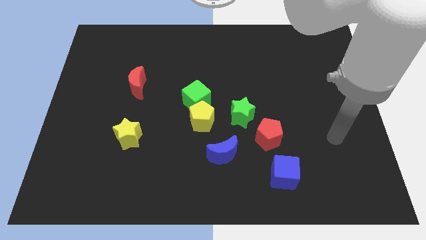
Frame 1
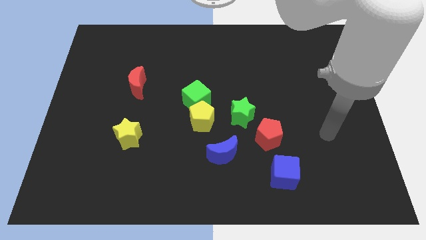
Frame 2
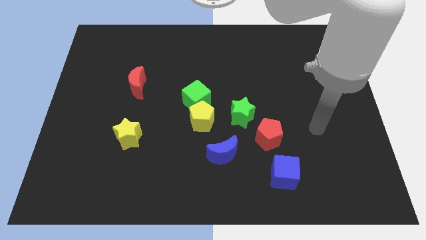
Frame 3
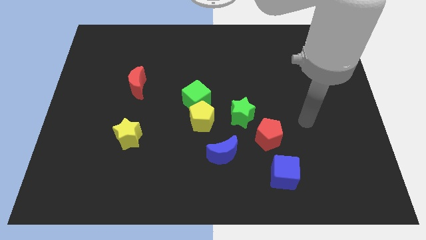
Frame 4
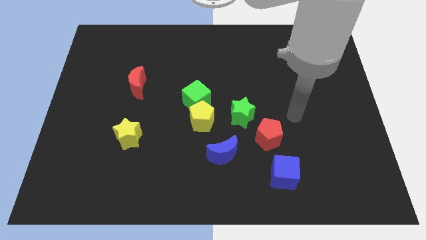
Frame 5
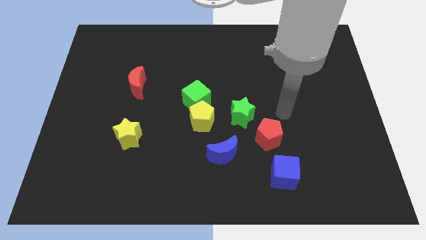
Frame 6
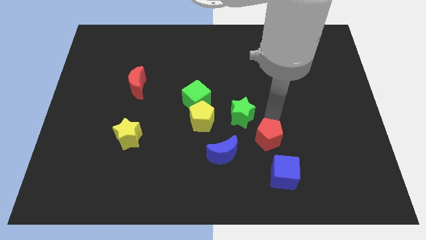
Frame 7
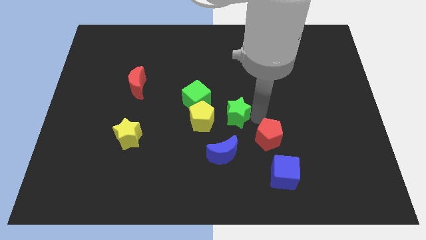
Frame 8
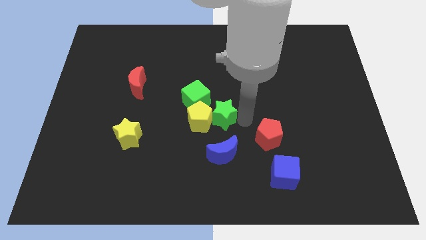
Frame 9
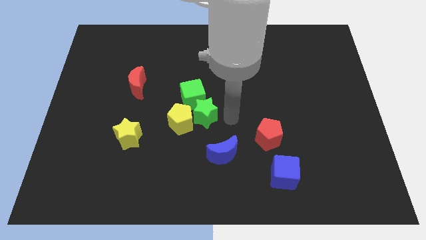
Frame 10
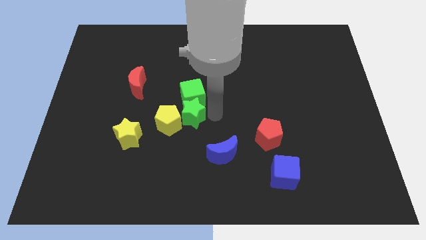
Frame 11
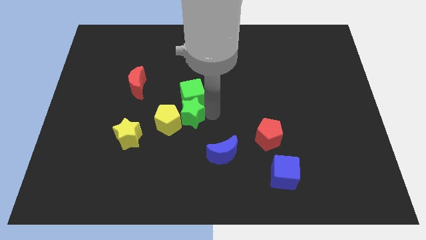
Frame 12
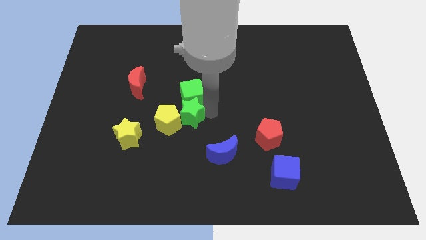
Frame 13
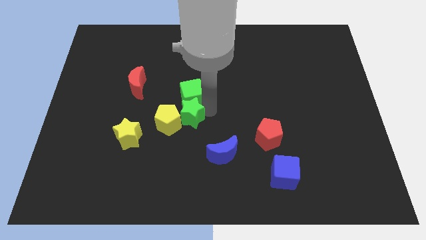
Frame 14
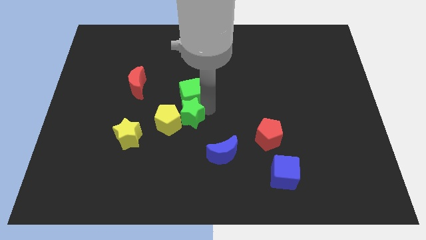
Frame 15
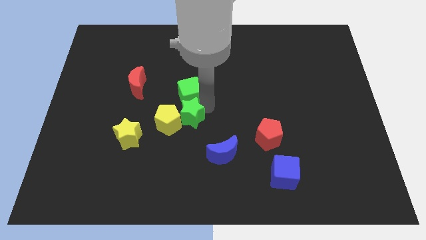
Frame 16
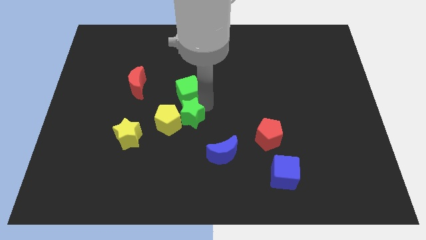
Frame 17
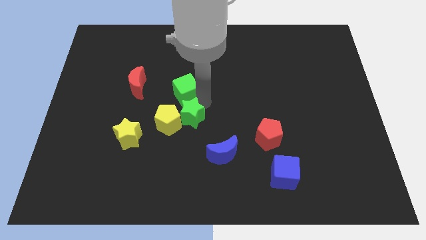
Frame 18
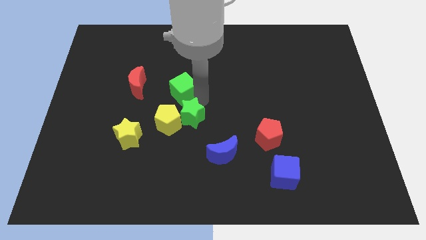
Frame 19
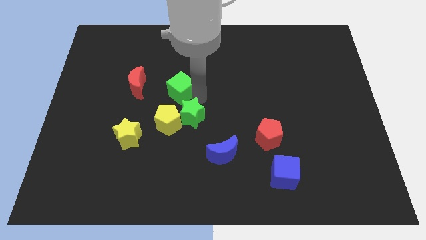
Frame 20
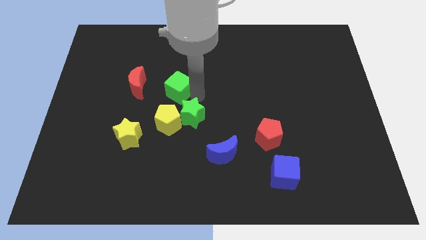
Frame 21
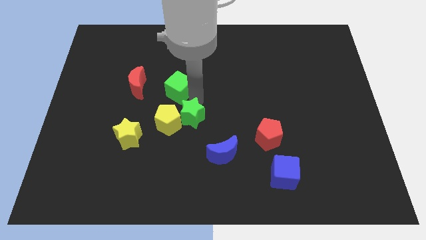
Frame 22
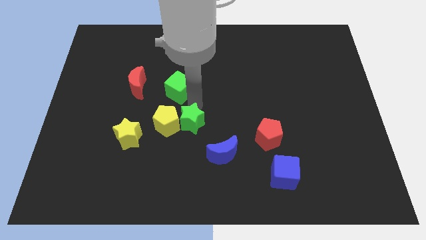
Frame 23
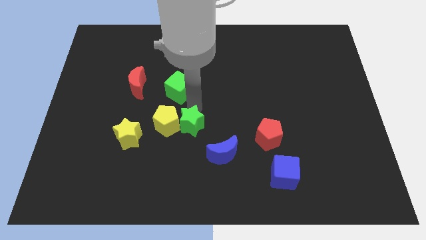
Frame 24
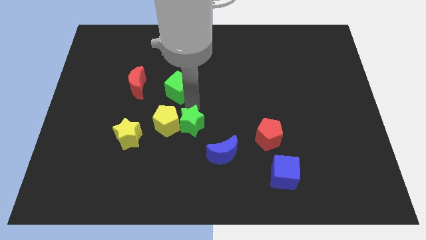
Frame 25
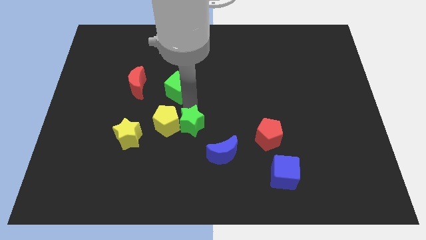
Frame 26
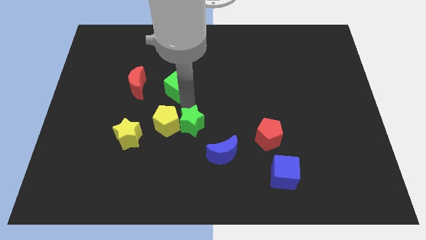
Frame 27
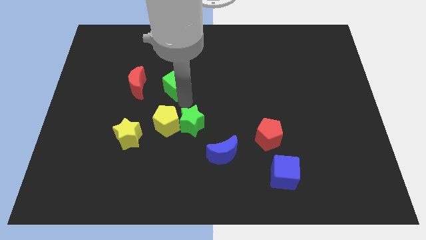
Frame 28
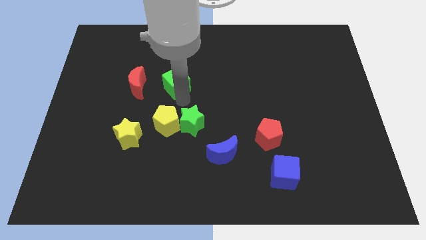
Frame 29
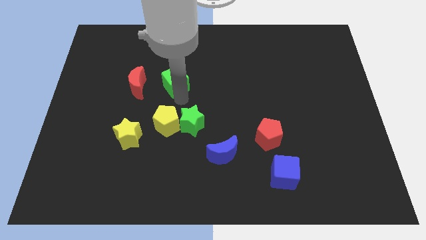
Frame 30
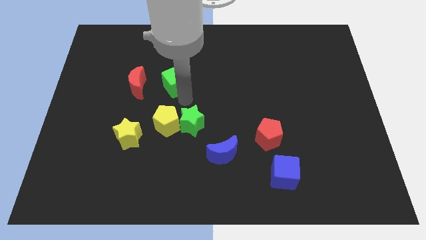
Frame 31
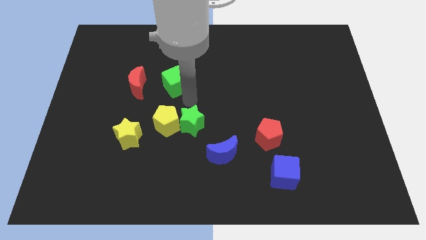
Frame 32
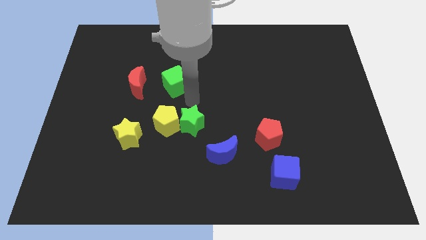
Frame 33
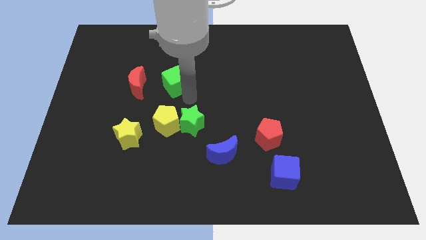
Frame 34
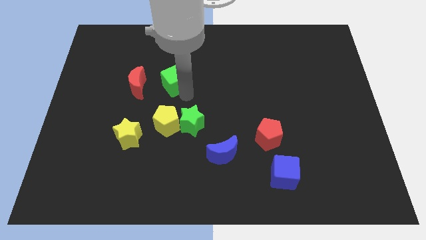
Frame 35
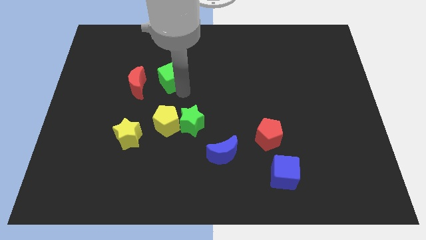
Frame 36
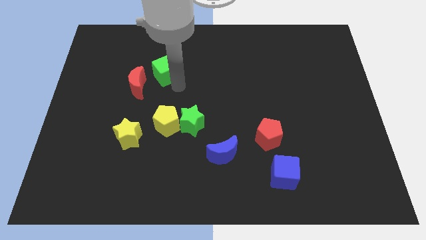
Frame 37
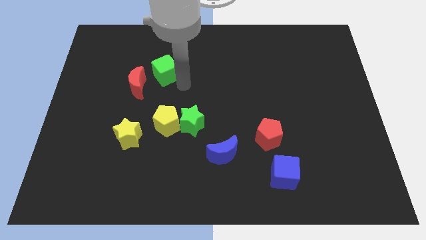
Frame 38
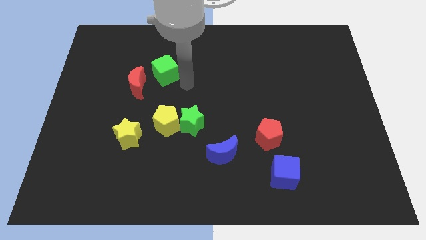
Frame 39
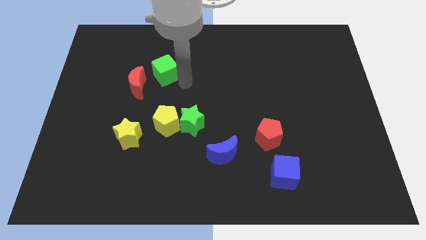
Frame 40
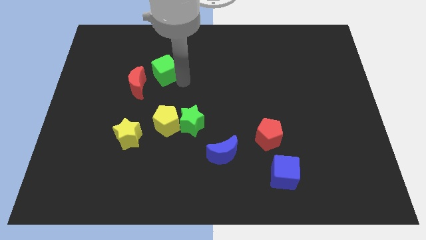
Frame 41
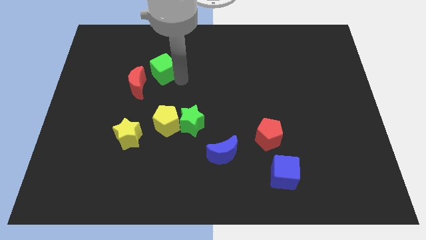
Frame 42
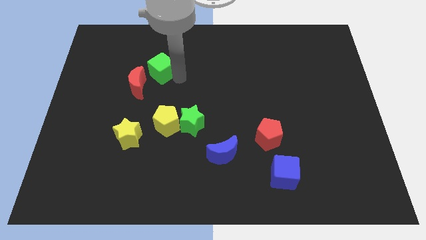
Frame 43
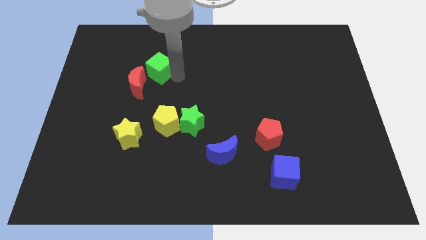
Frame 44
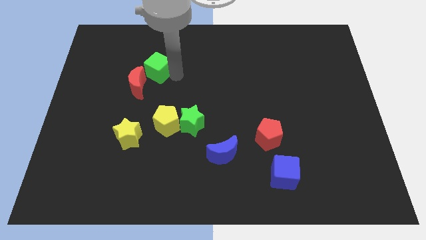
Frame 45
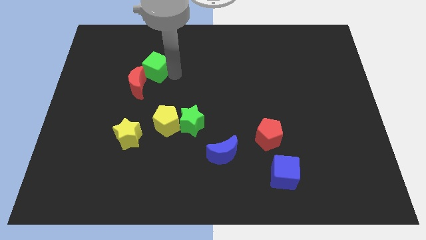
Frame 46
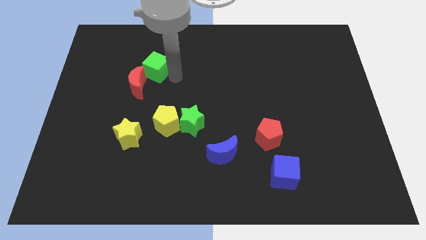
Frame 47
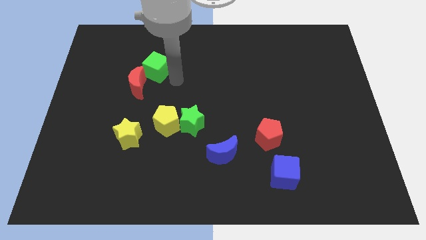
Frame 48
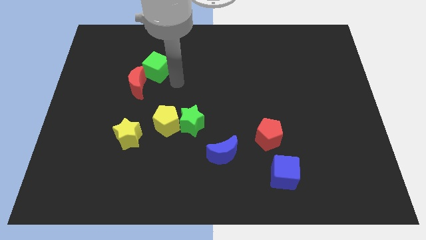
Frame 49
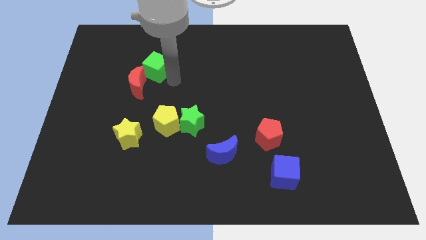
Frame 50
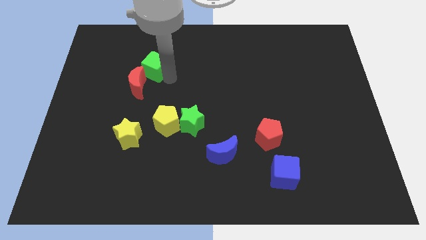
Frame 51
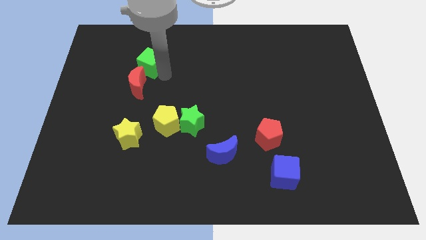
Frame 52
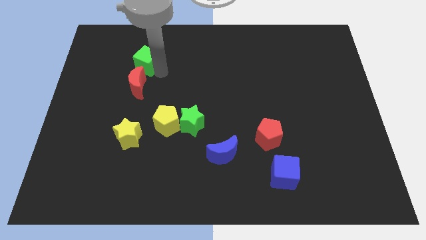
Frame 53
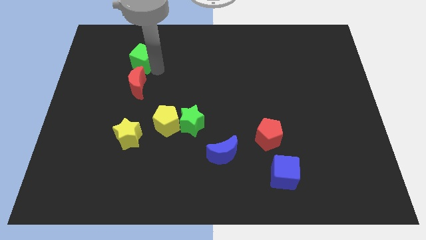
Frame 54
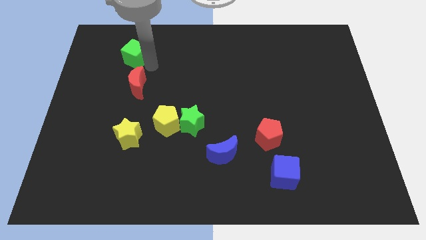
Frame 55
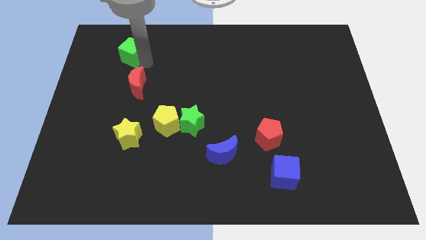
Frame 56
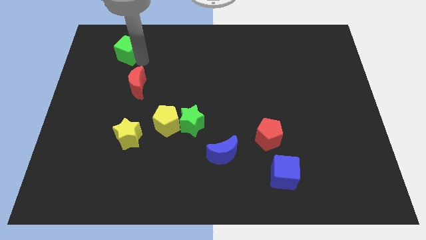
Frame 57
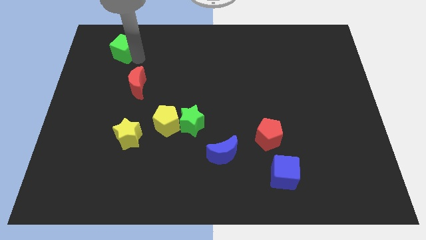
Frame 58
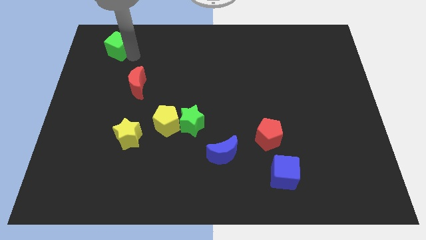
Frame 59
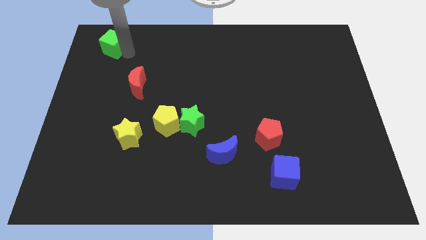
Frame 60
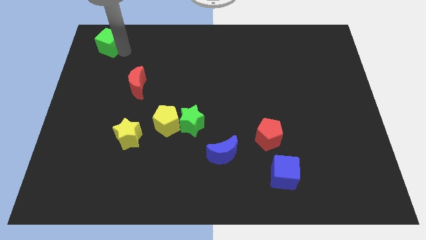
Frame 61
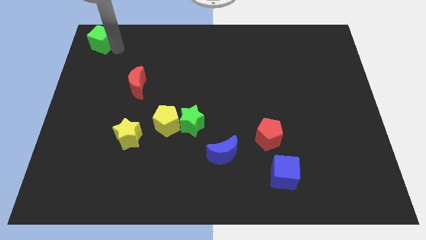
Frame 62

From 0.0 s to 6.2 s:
put the green cube to the top left corner

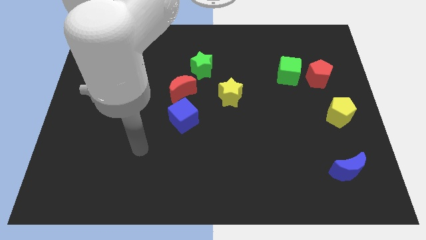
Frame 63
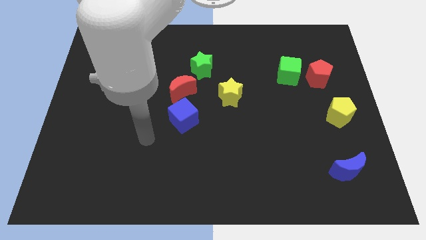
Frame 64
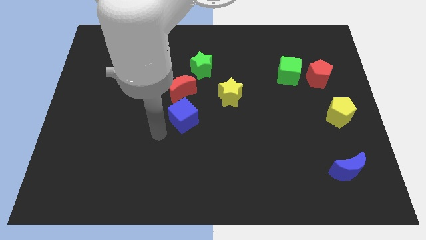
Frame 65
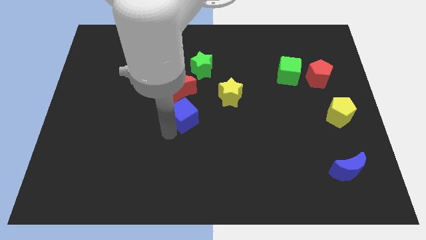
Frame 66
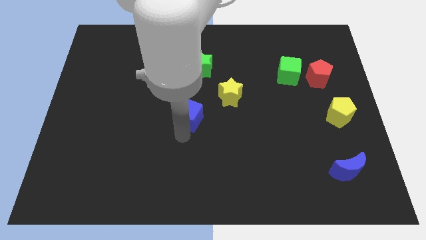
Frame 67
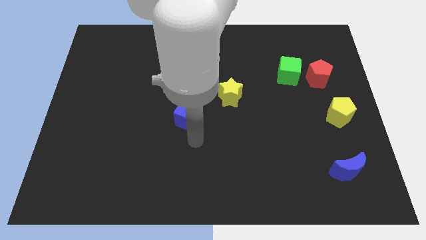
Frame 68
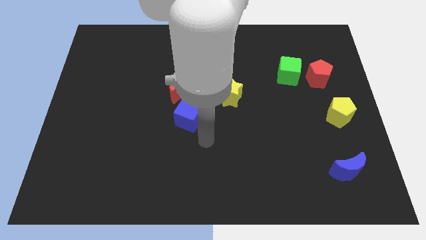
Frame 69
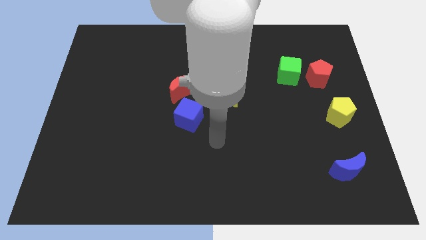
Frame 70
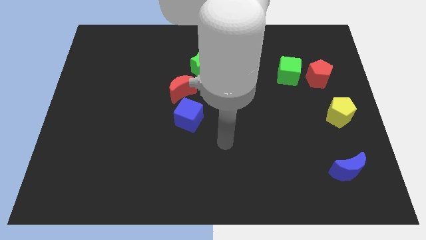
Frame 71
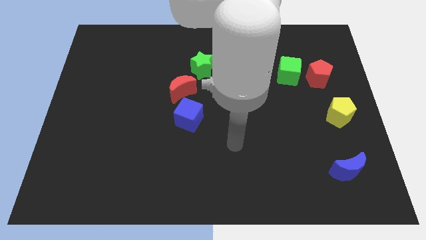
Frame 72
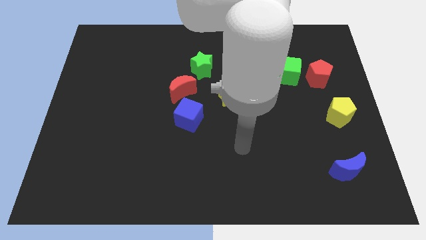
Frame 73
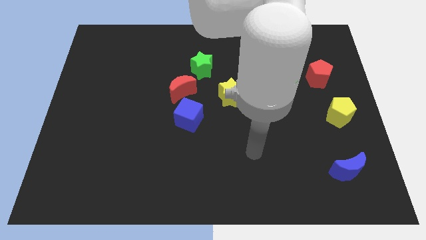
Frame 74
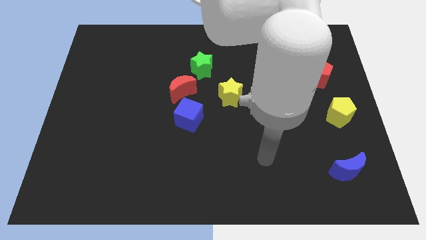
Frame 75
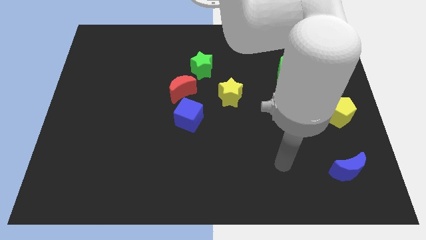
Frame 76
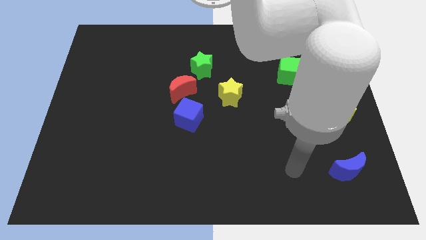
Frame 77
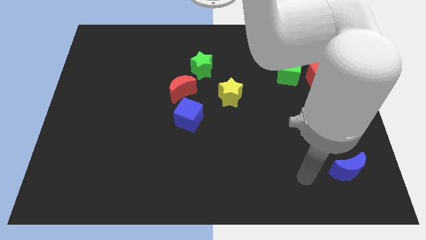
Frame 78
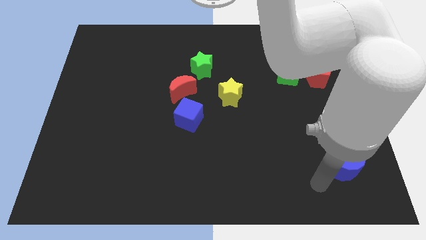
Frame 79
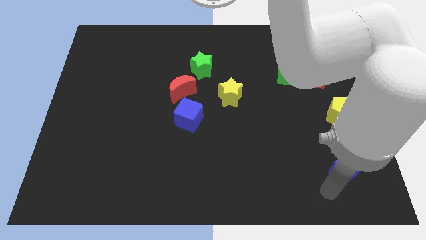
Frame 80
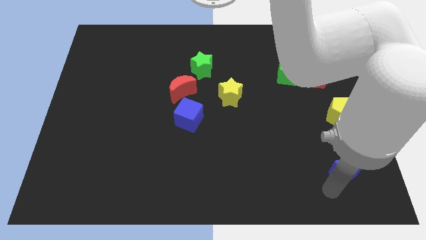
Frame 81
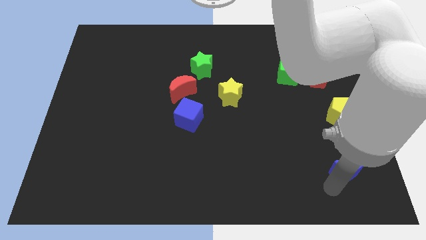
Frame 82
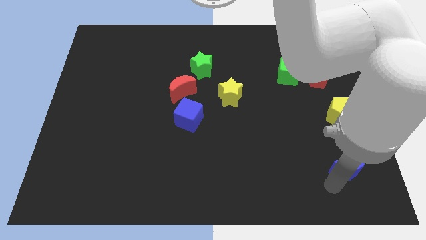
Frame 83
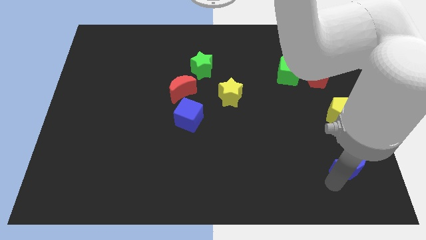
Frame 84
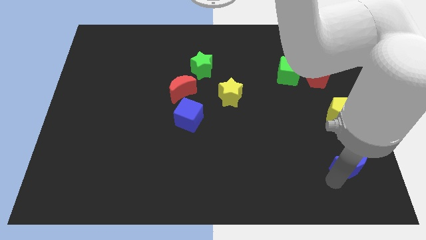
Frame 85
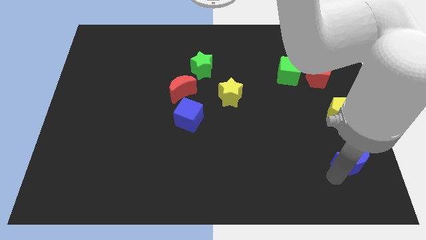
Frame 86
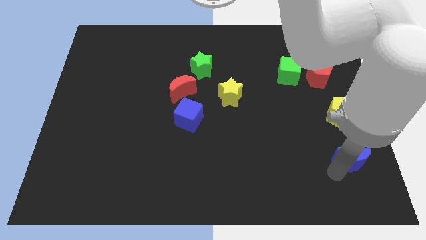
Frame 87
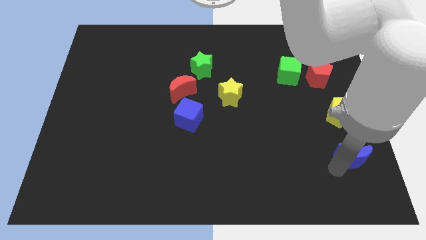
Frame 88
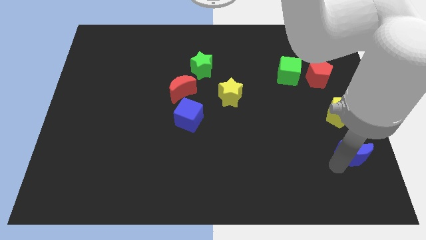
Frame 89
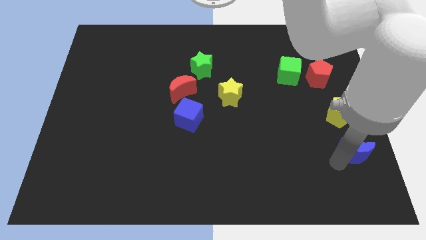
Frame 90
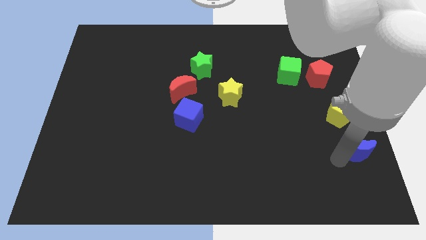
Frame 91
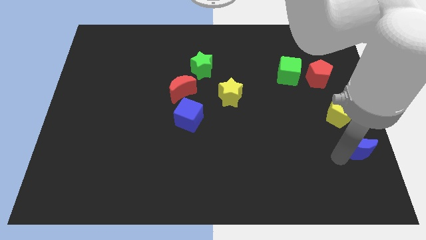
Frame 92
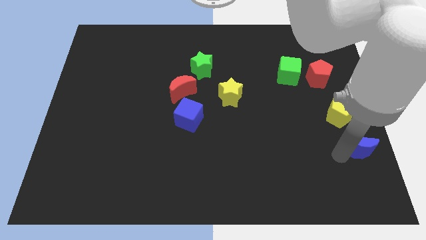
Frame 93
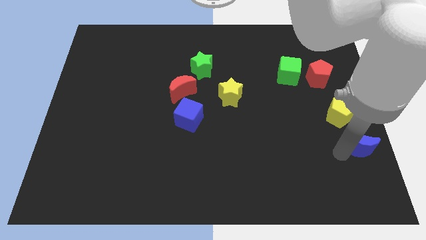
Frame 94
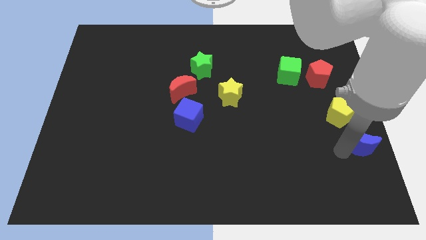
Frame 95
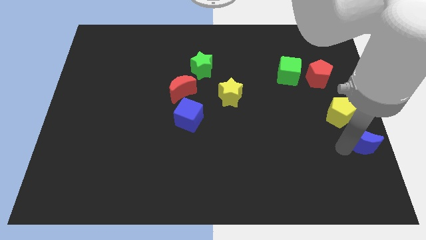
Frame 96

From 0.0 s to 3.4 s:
push the blue moon to the right side
